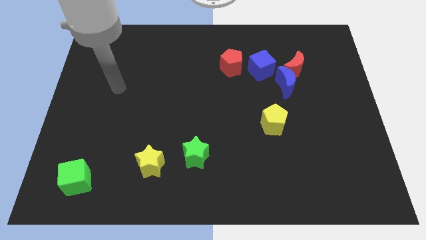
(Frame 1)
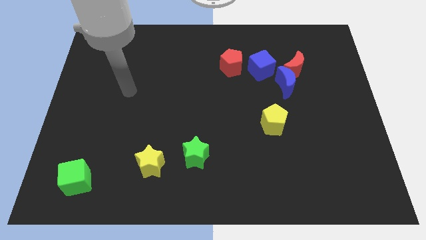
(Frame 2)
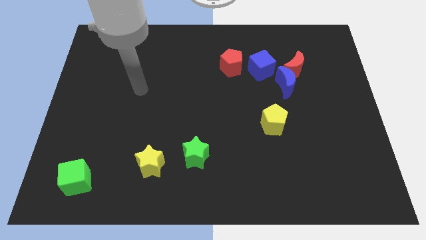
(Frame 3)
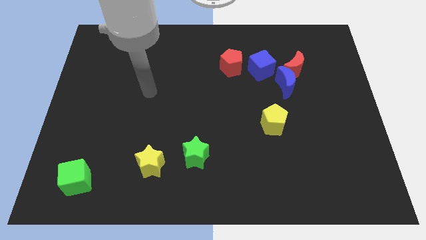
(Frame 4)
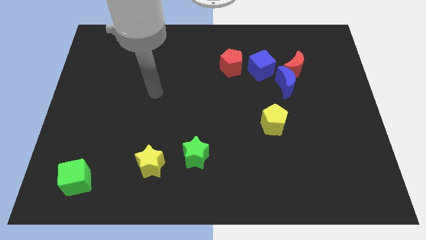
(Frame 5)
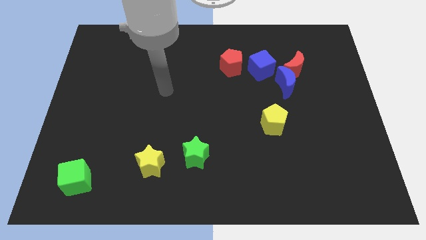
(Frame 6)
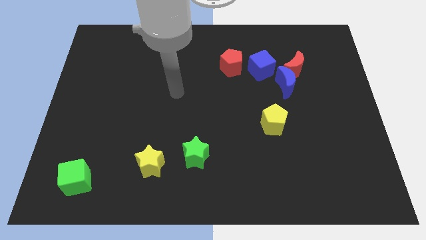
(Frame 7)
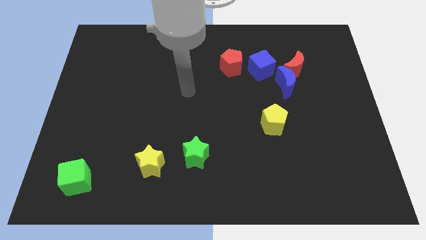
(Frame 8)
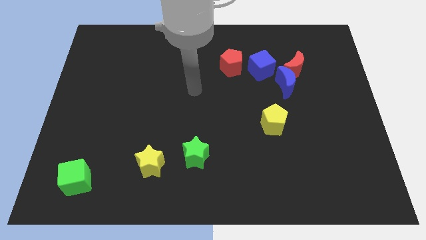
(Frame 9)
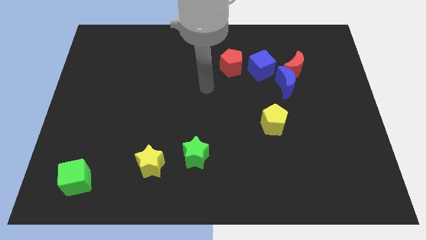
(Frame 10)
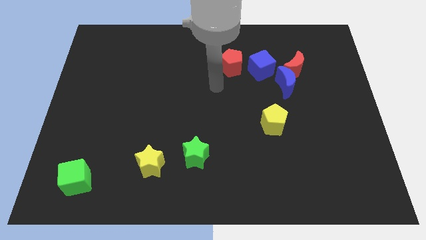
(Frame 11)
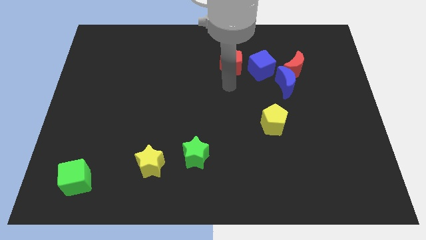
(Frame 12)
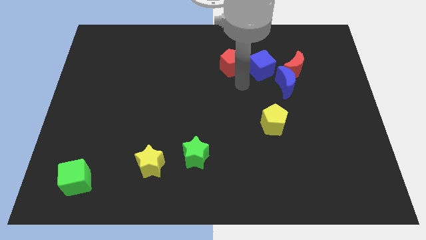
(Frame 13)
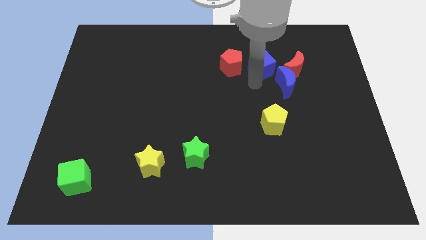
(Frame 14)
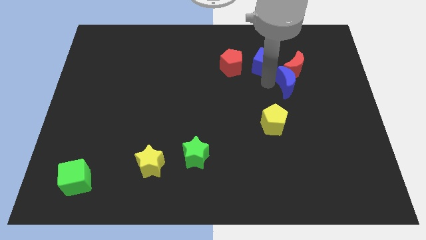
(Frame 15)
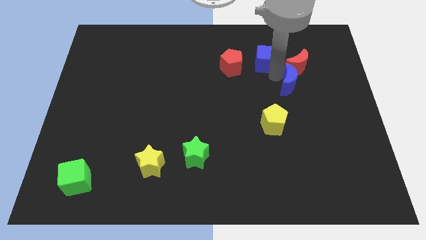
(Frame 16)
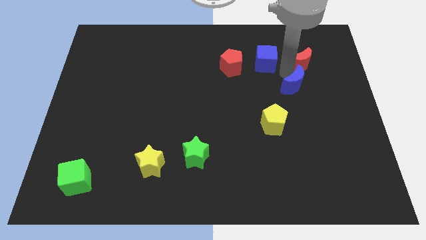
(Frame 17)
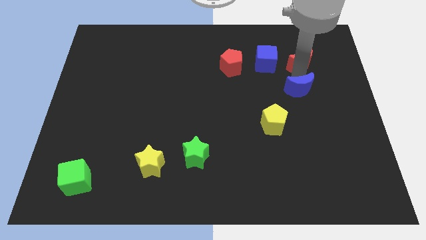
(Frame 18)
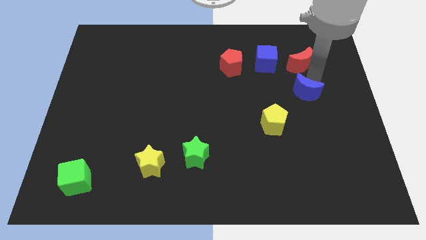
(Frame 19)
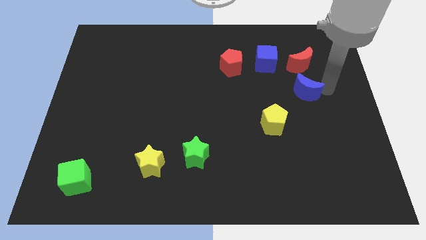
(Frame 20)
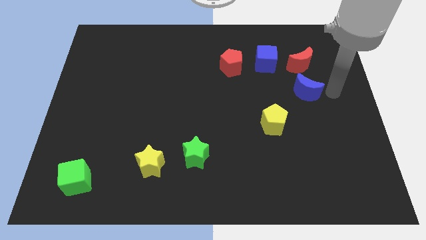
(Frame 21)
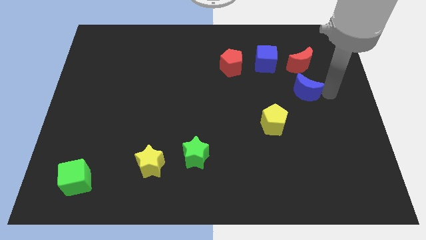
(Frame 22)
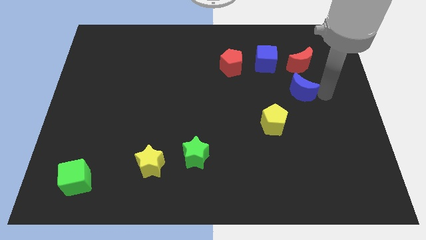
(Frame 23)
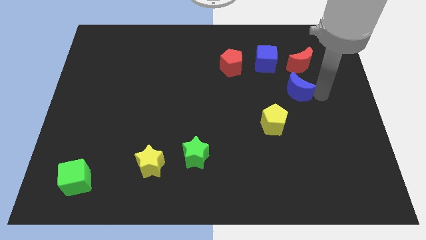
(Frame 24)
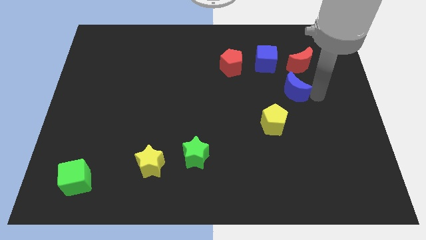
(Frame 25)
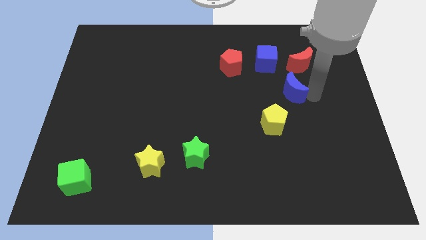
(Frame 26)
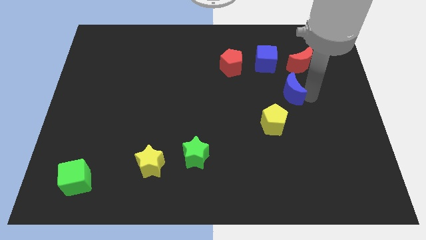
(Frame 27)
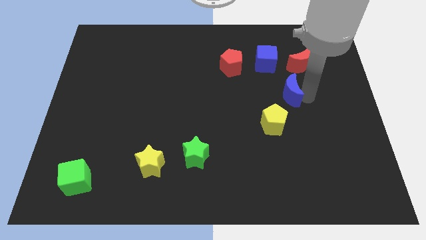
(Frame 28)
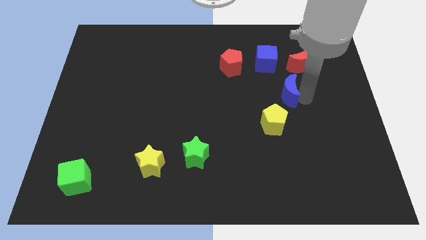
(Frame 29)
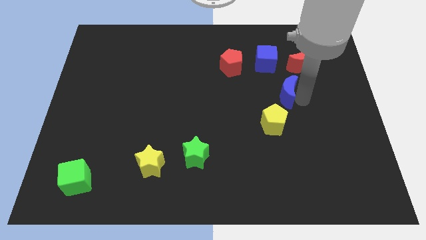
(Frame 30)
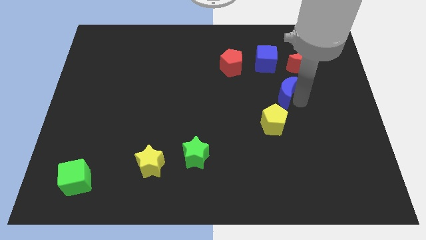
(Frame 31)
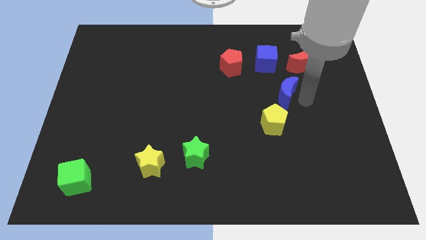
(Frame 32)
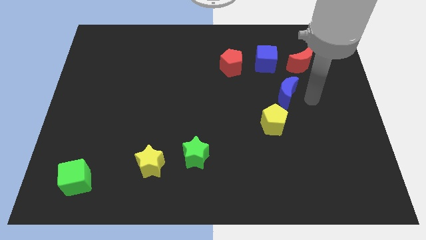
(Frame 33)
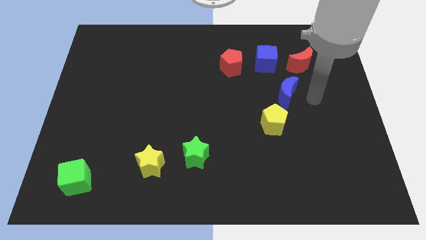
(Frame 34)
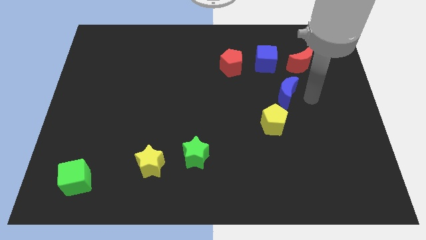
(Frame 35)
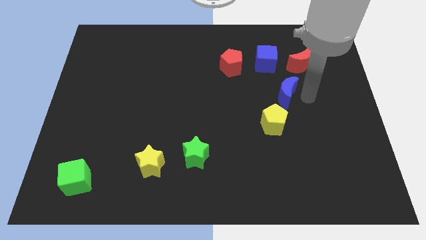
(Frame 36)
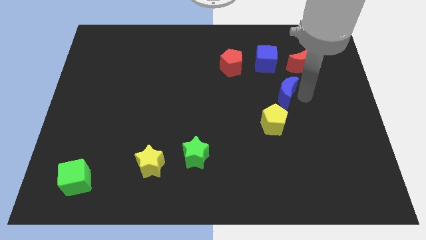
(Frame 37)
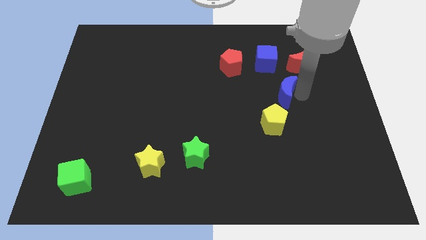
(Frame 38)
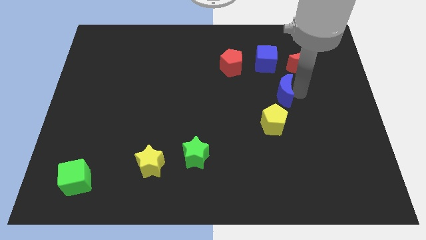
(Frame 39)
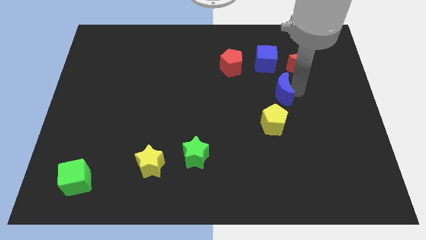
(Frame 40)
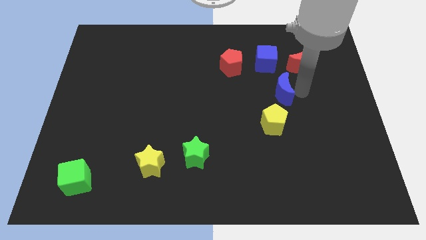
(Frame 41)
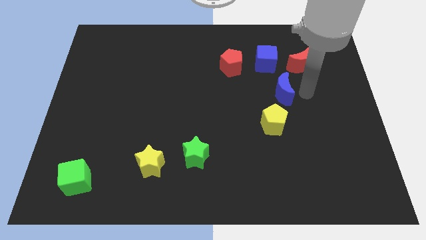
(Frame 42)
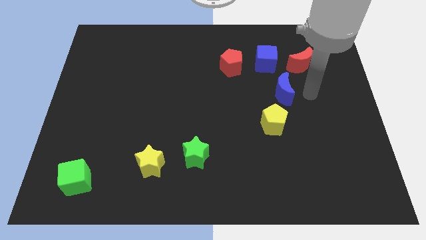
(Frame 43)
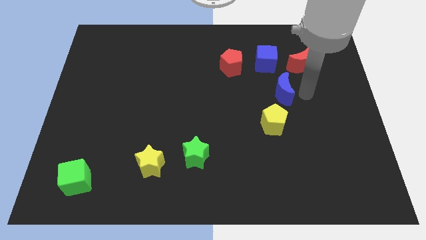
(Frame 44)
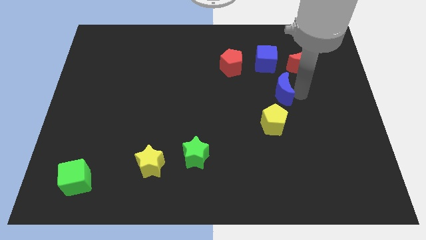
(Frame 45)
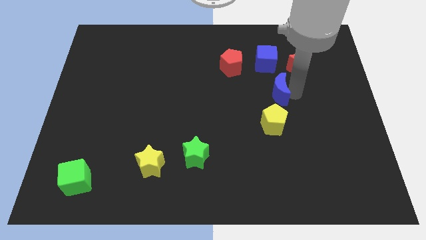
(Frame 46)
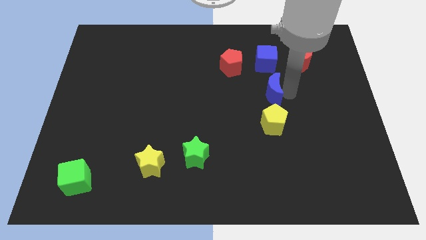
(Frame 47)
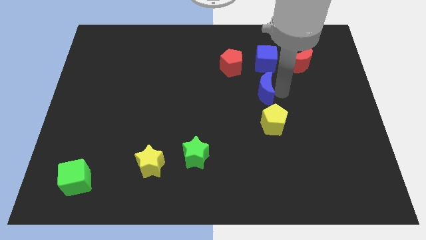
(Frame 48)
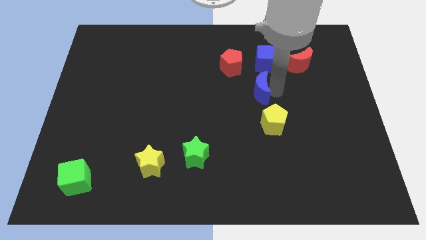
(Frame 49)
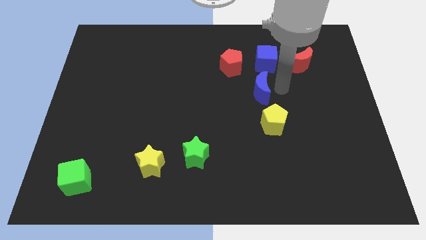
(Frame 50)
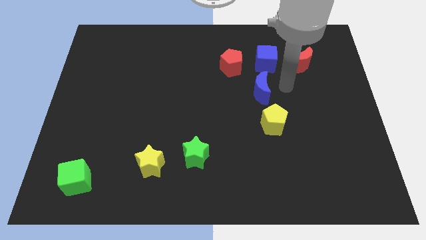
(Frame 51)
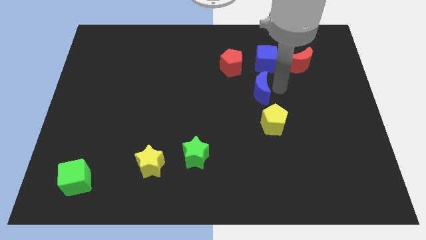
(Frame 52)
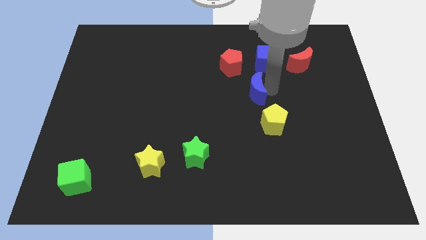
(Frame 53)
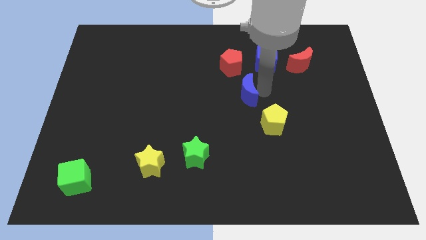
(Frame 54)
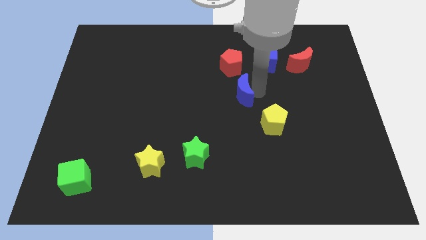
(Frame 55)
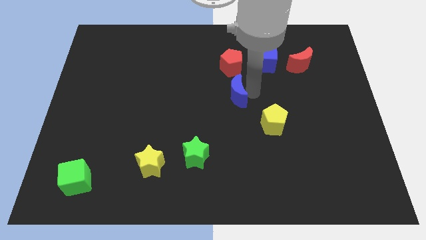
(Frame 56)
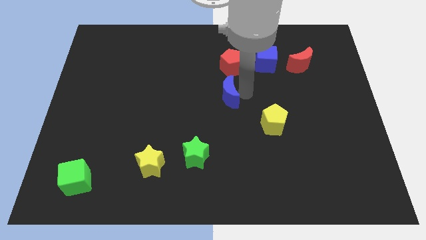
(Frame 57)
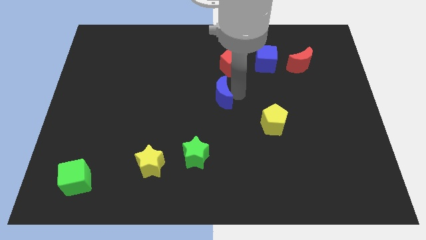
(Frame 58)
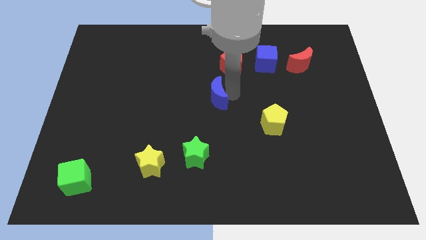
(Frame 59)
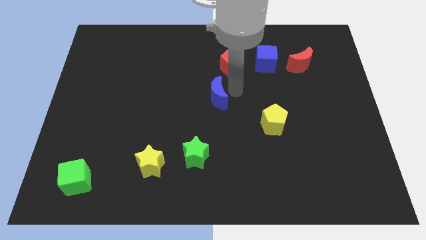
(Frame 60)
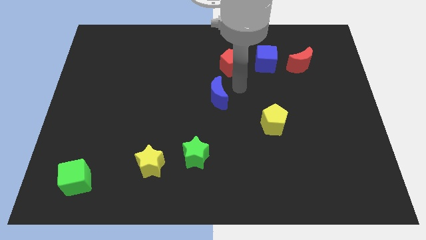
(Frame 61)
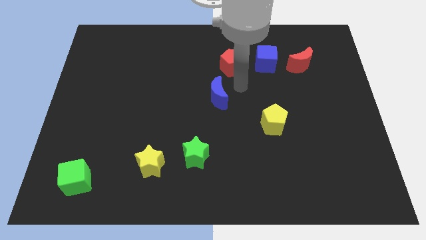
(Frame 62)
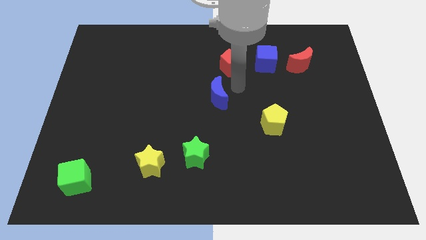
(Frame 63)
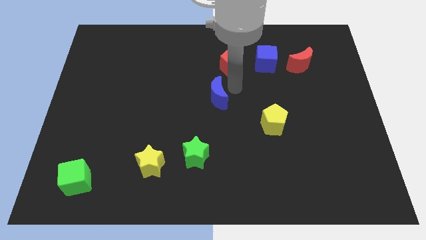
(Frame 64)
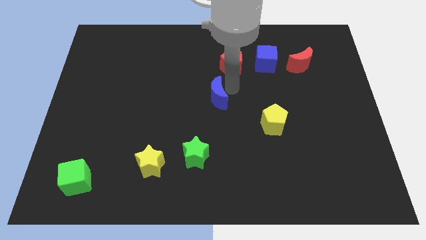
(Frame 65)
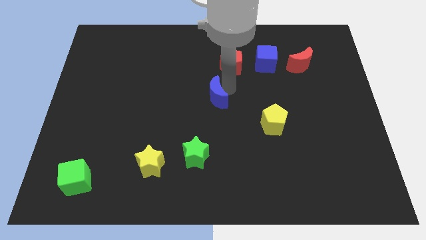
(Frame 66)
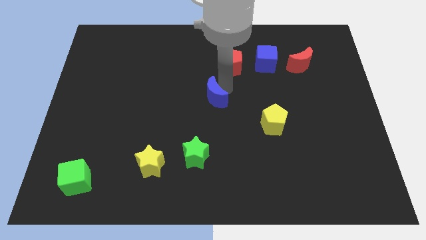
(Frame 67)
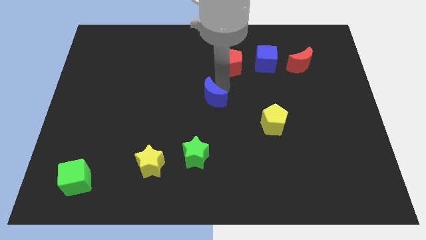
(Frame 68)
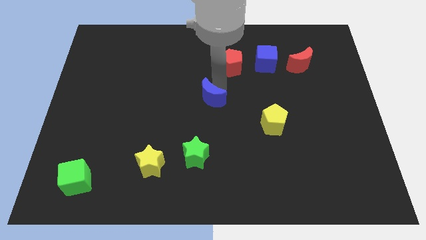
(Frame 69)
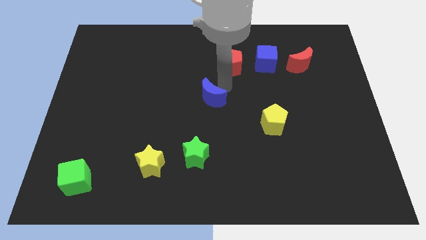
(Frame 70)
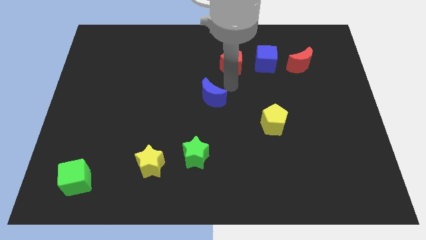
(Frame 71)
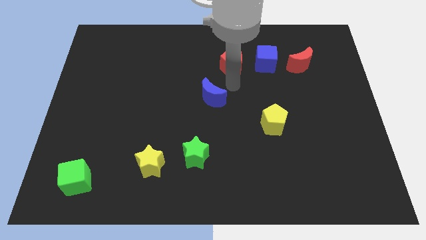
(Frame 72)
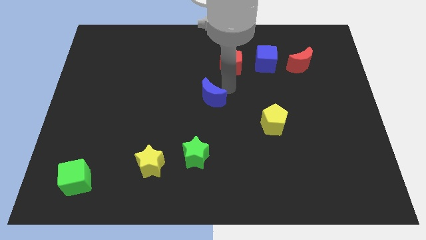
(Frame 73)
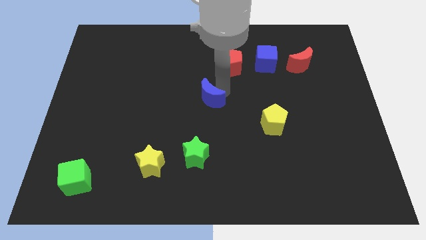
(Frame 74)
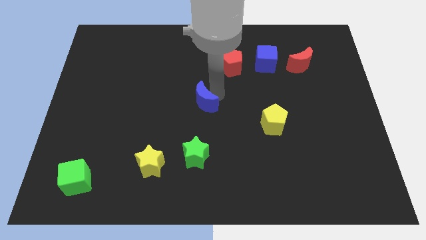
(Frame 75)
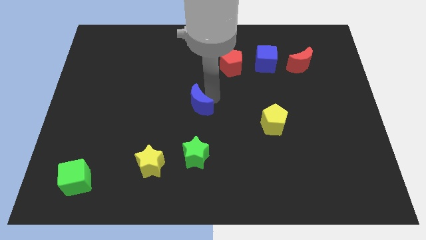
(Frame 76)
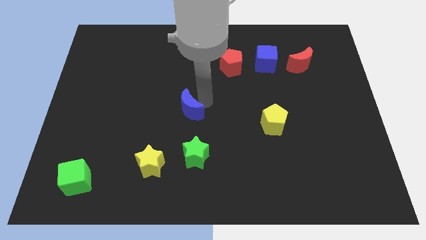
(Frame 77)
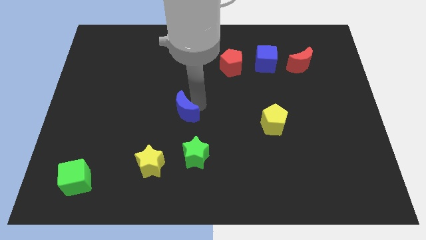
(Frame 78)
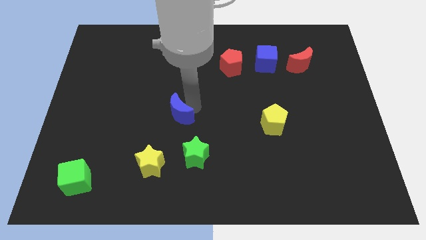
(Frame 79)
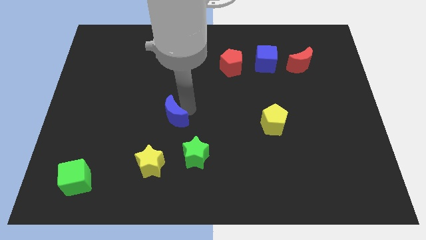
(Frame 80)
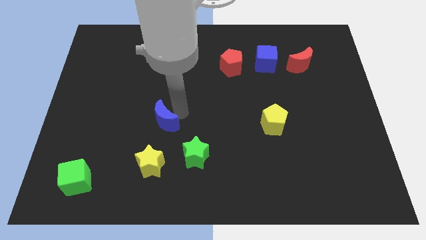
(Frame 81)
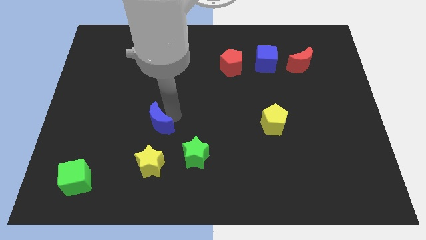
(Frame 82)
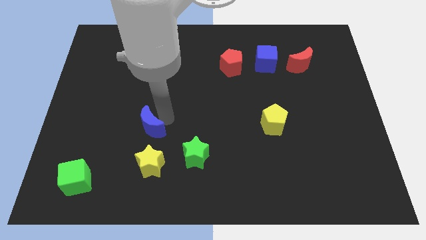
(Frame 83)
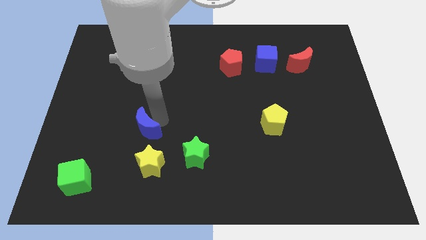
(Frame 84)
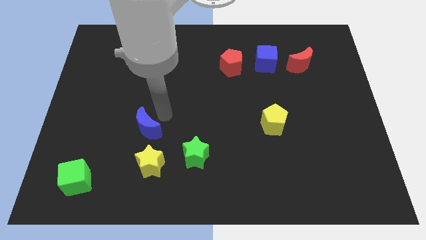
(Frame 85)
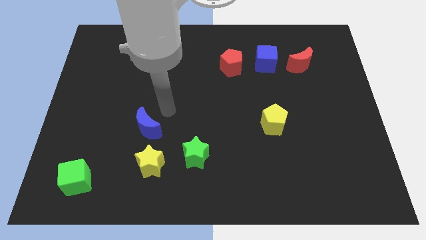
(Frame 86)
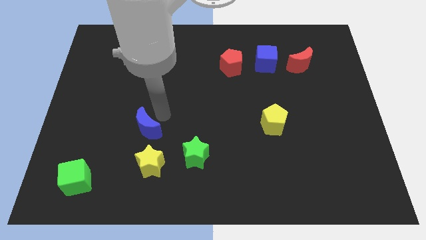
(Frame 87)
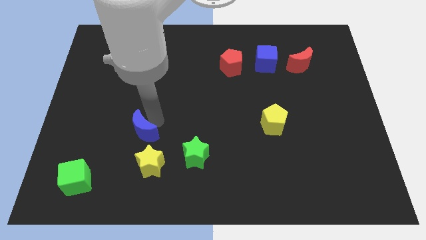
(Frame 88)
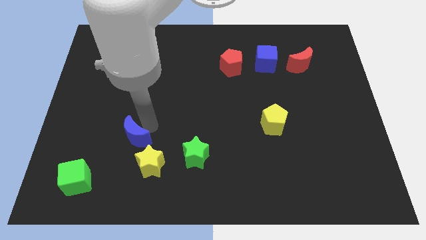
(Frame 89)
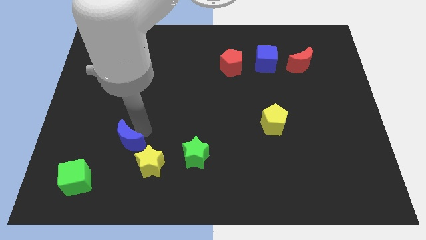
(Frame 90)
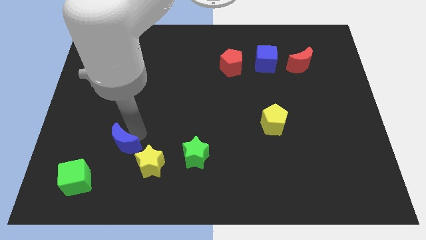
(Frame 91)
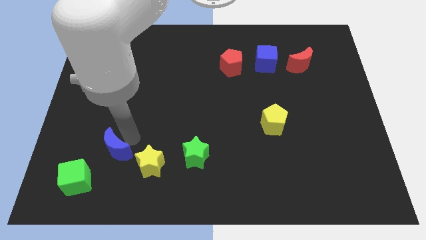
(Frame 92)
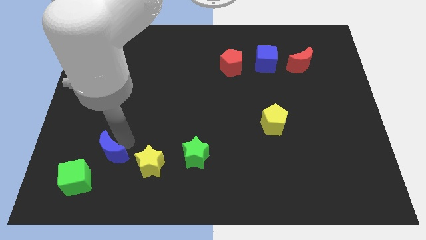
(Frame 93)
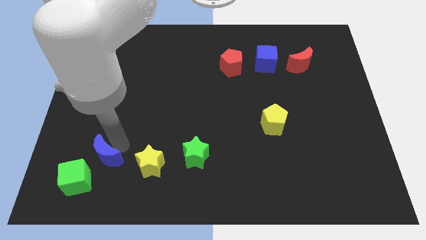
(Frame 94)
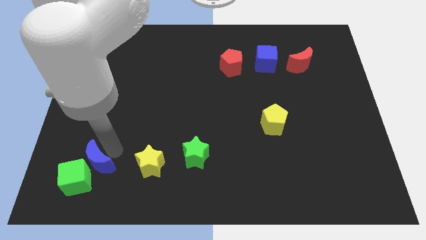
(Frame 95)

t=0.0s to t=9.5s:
push the blue moon towards the green cube
